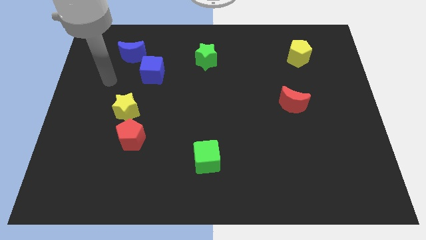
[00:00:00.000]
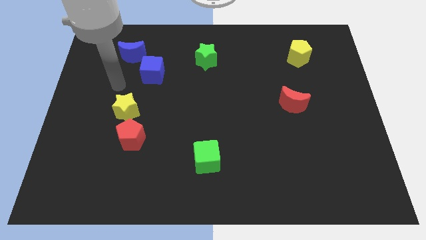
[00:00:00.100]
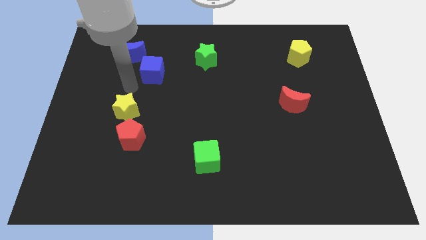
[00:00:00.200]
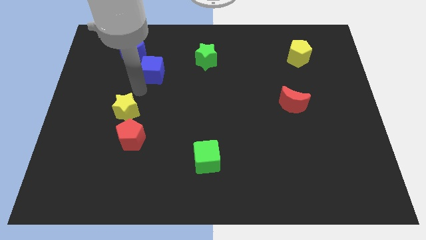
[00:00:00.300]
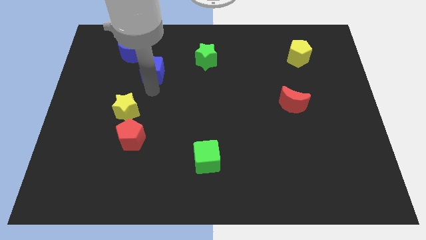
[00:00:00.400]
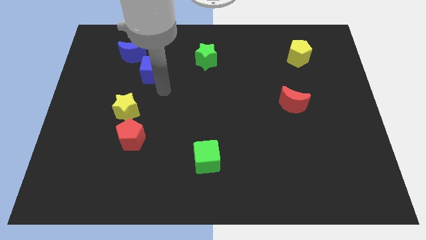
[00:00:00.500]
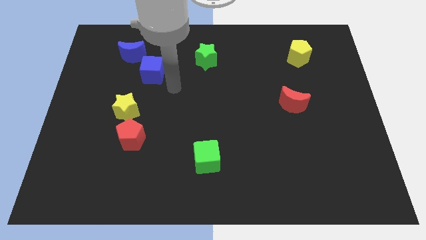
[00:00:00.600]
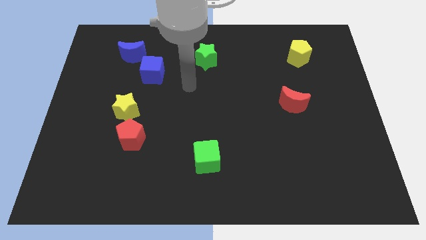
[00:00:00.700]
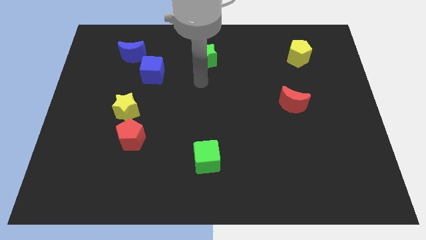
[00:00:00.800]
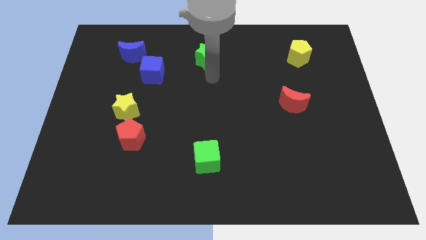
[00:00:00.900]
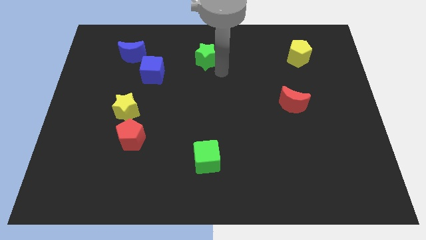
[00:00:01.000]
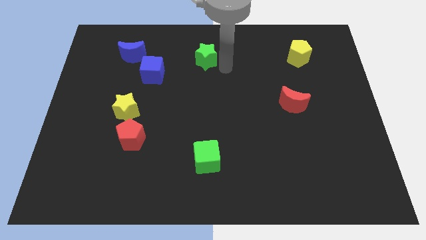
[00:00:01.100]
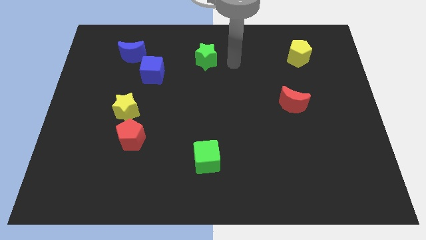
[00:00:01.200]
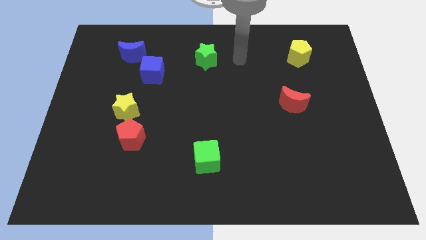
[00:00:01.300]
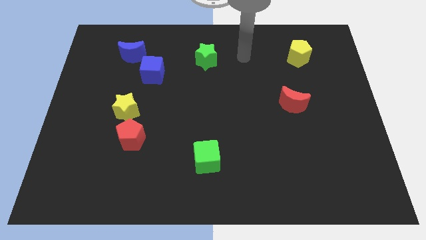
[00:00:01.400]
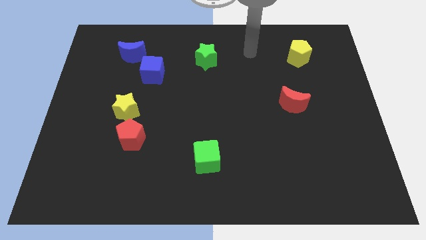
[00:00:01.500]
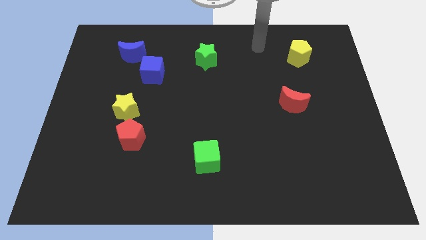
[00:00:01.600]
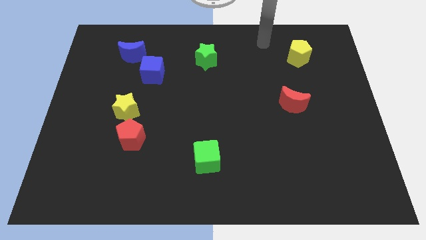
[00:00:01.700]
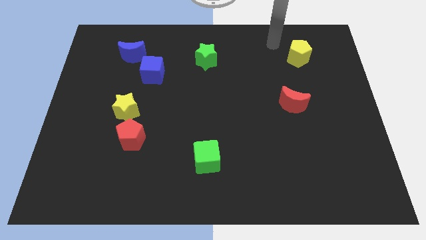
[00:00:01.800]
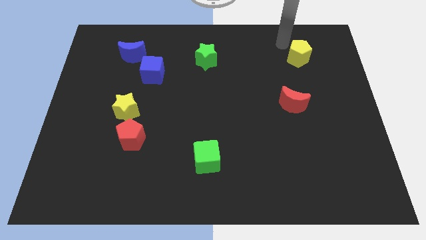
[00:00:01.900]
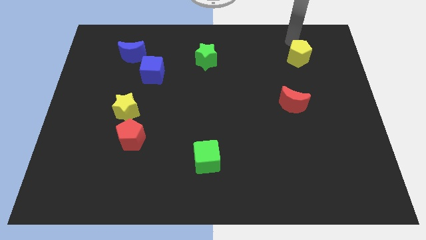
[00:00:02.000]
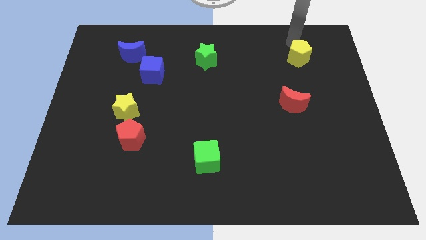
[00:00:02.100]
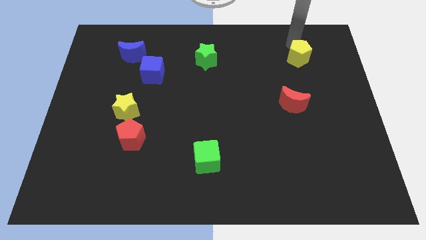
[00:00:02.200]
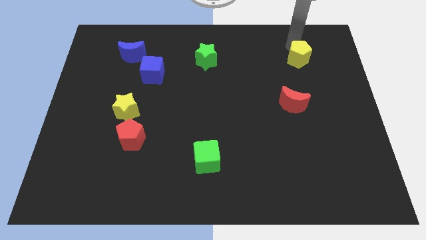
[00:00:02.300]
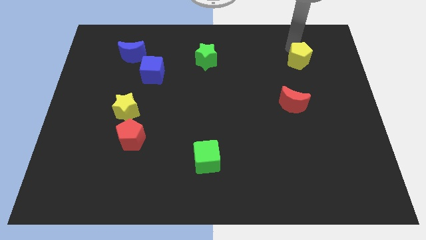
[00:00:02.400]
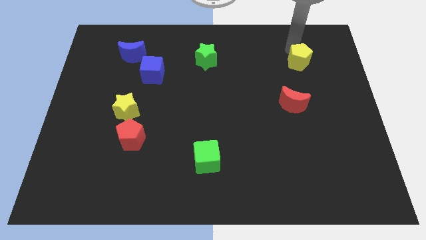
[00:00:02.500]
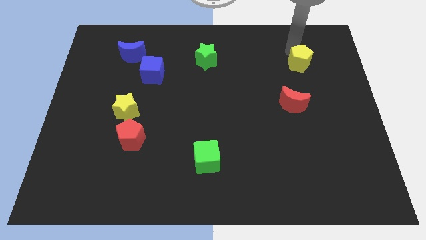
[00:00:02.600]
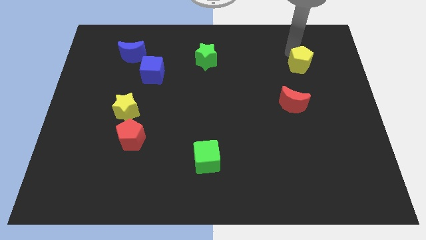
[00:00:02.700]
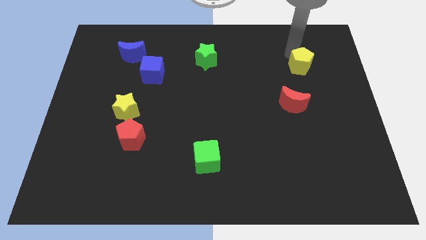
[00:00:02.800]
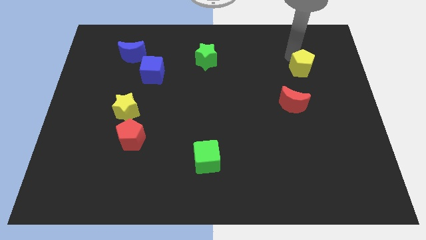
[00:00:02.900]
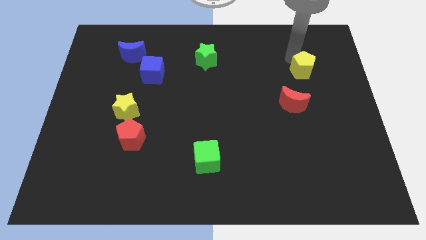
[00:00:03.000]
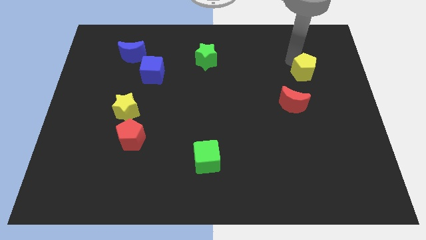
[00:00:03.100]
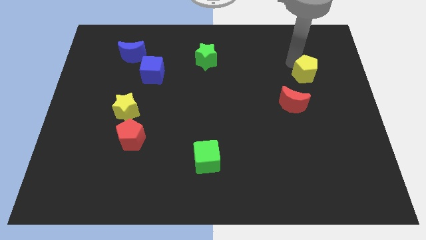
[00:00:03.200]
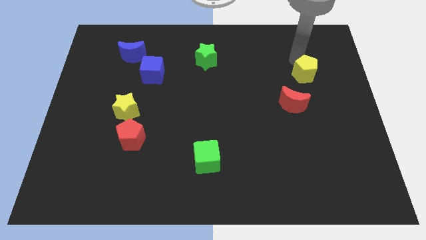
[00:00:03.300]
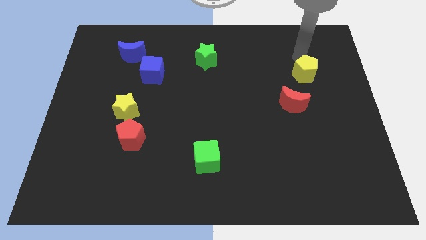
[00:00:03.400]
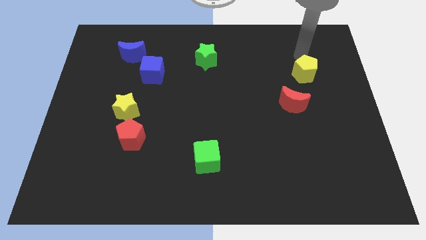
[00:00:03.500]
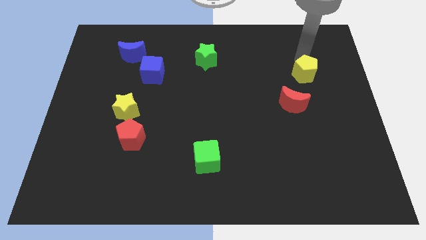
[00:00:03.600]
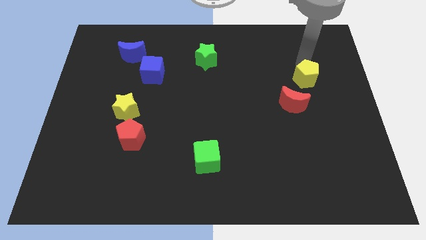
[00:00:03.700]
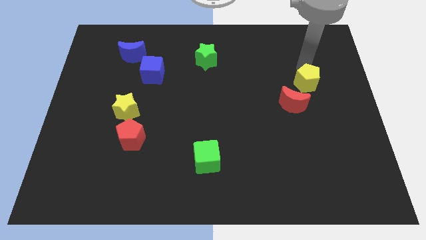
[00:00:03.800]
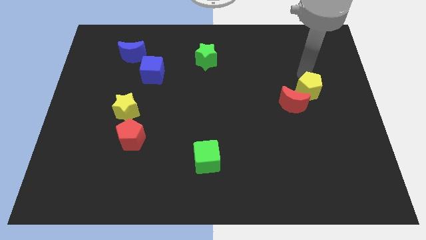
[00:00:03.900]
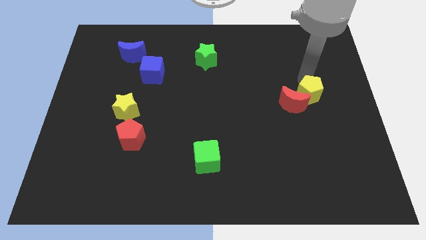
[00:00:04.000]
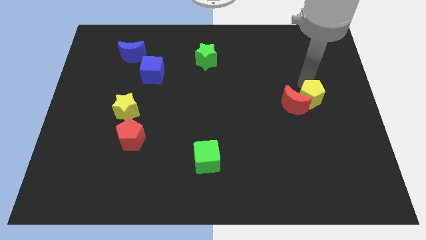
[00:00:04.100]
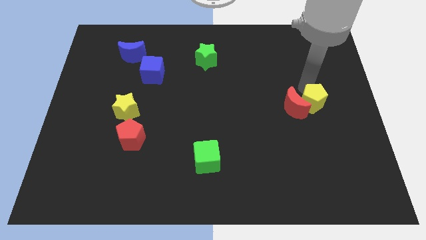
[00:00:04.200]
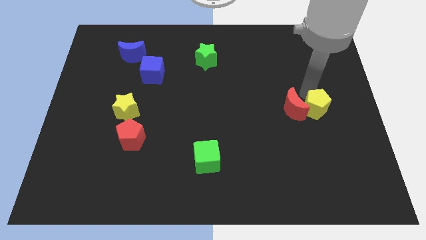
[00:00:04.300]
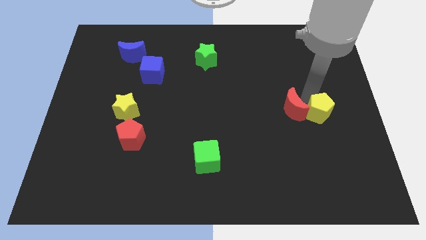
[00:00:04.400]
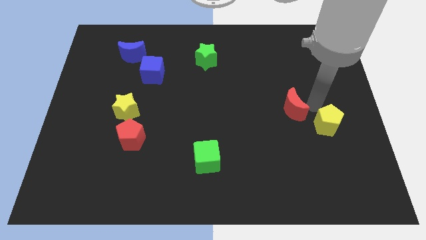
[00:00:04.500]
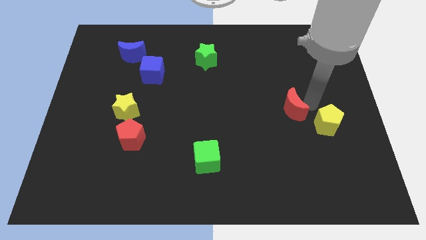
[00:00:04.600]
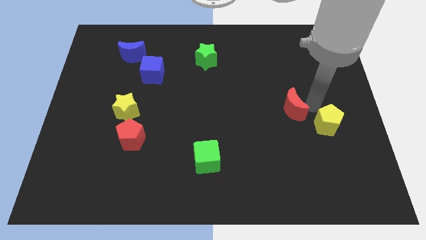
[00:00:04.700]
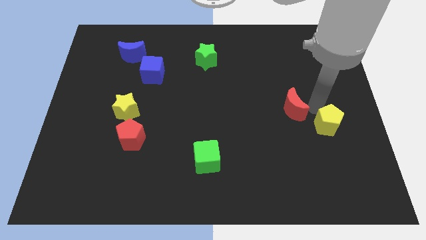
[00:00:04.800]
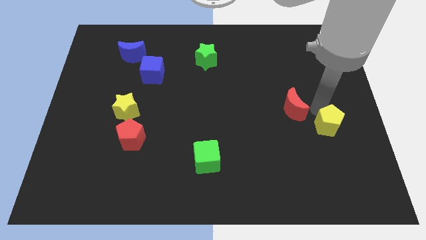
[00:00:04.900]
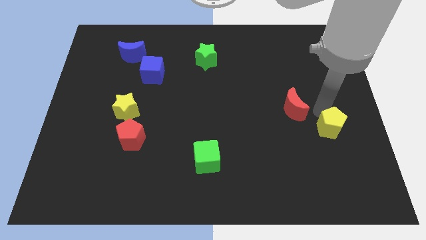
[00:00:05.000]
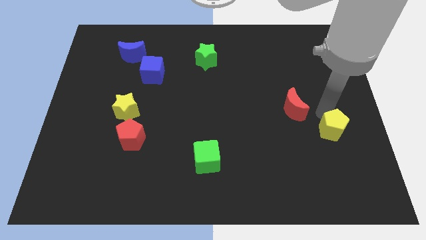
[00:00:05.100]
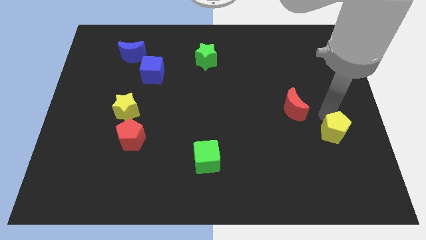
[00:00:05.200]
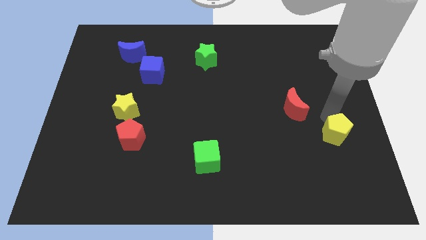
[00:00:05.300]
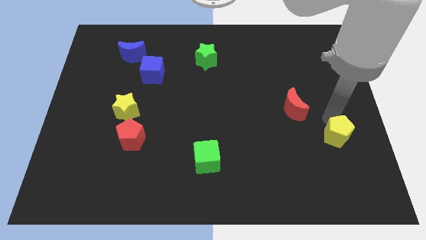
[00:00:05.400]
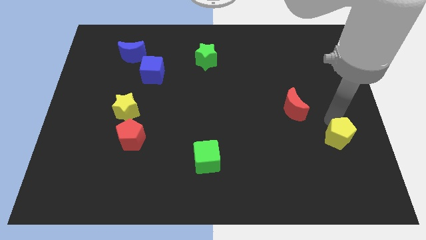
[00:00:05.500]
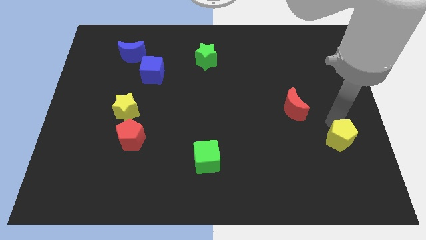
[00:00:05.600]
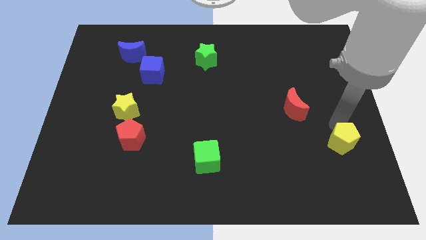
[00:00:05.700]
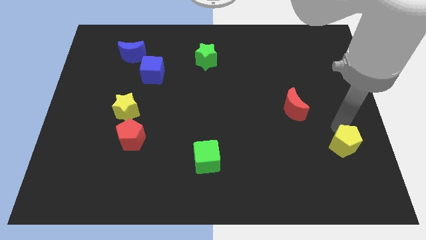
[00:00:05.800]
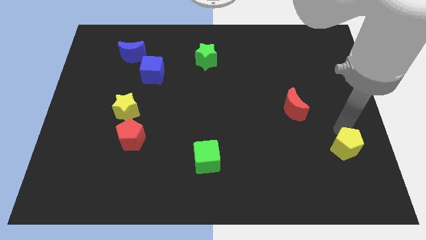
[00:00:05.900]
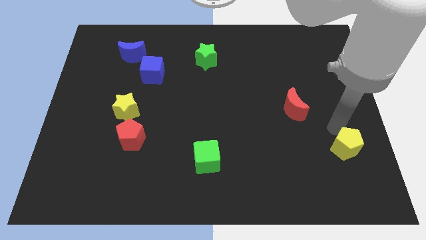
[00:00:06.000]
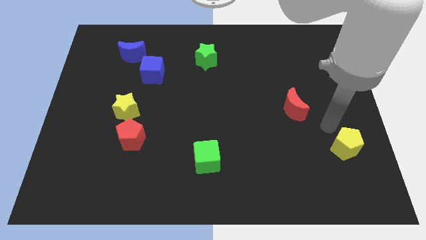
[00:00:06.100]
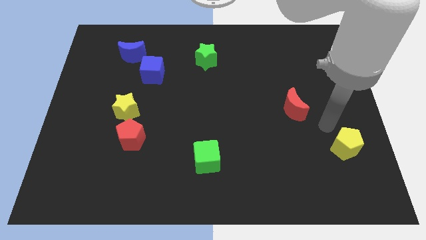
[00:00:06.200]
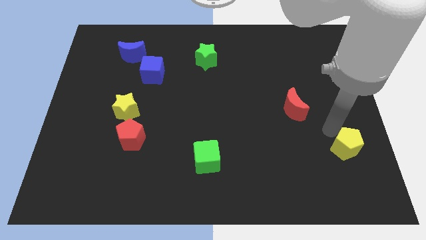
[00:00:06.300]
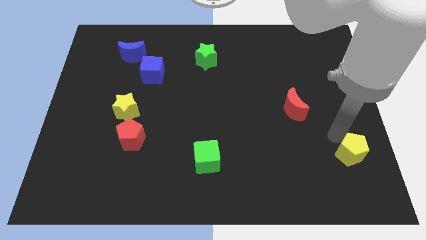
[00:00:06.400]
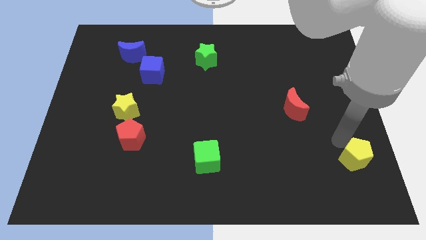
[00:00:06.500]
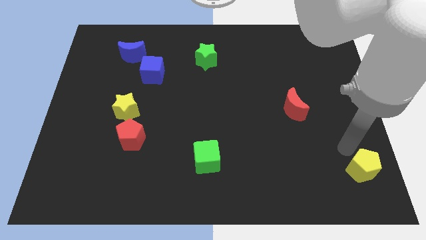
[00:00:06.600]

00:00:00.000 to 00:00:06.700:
push the yellow pentagon to the lower right corner
